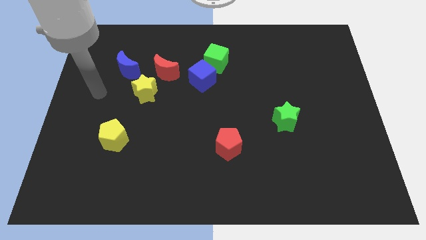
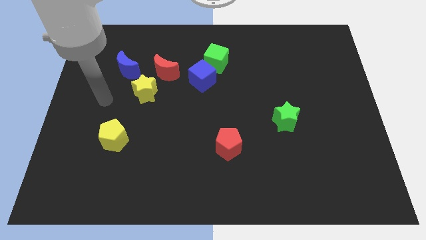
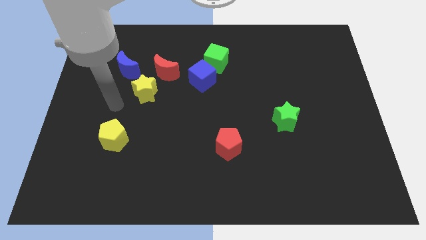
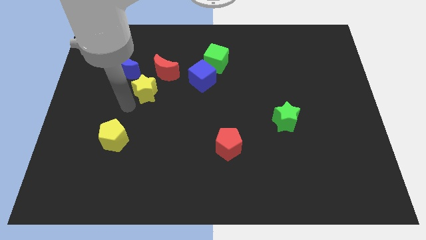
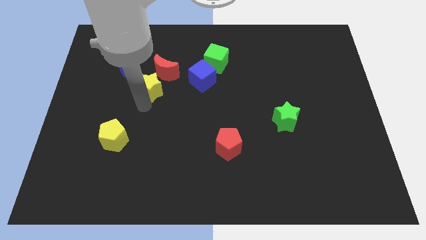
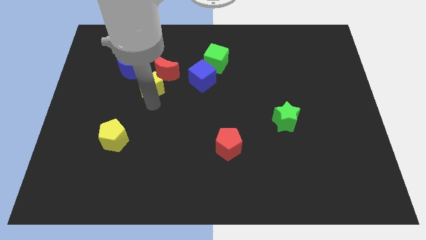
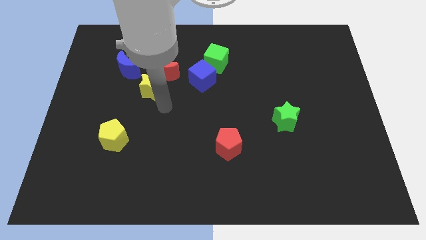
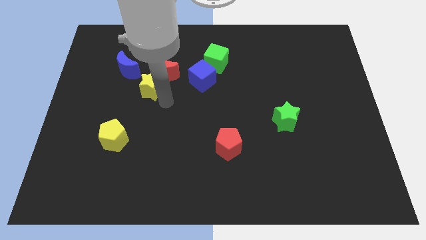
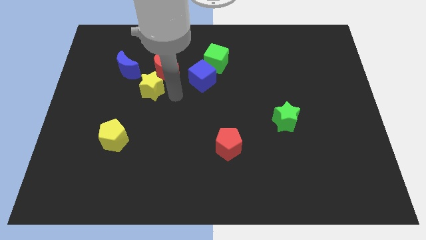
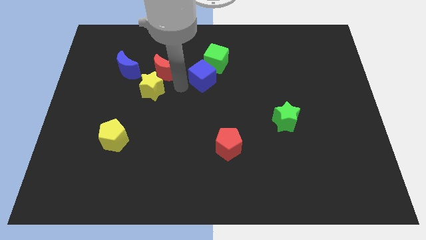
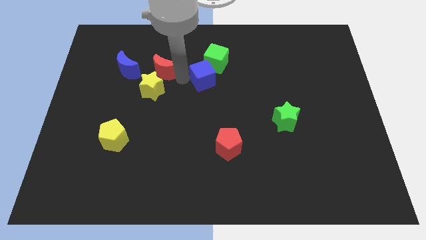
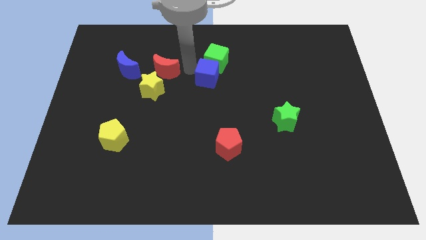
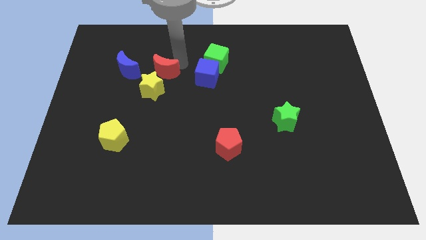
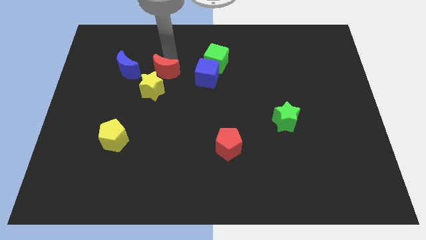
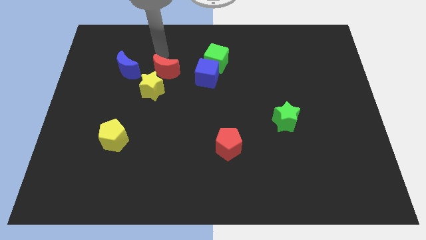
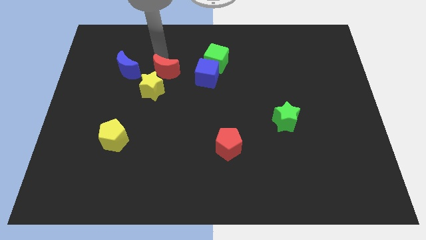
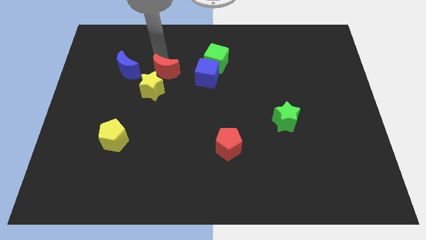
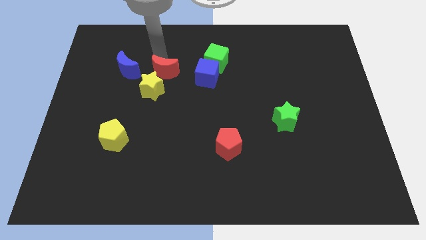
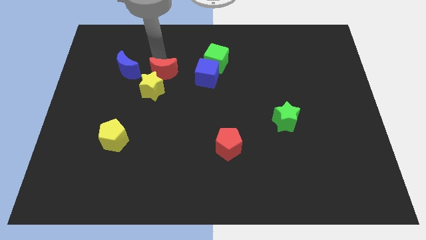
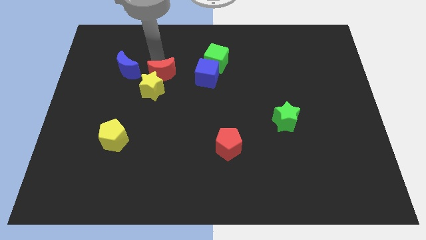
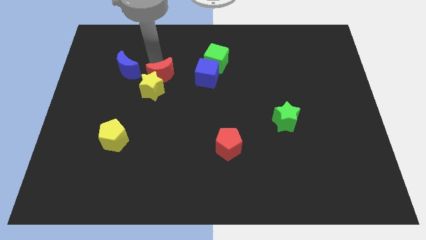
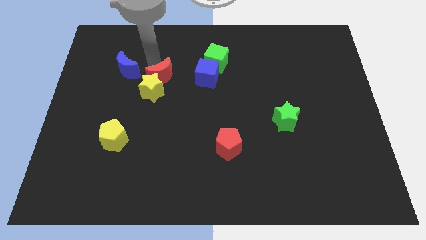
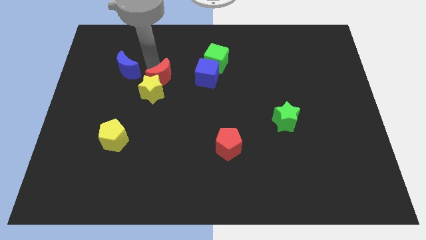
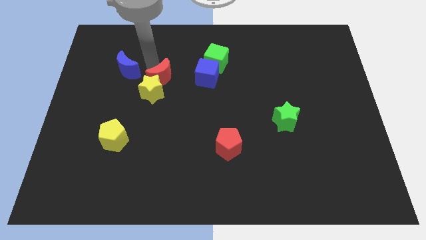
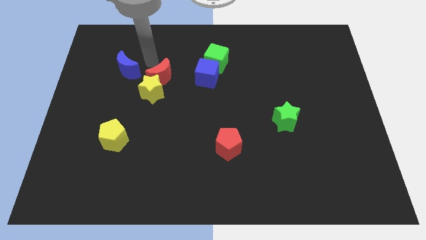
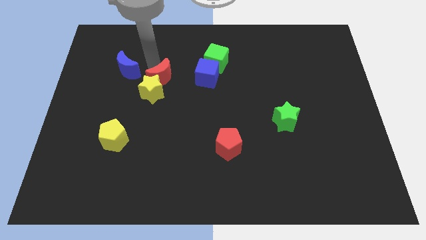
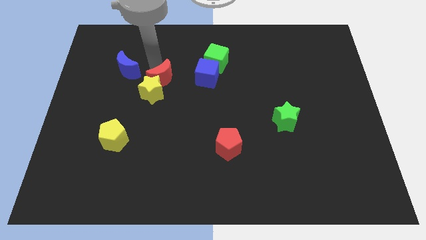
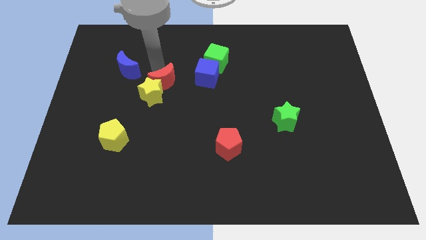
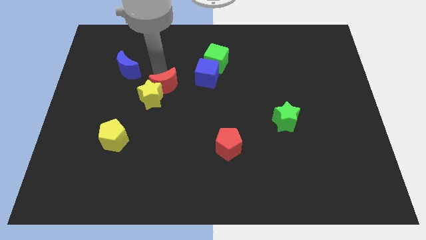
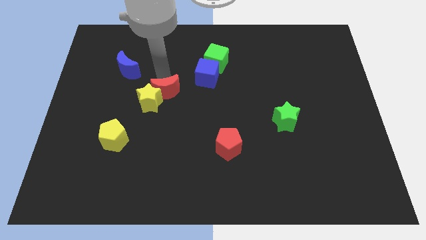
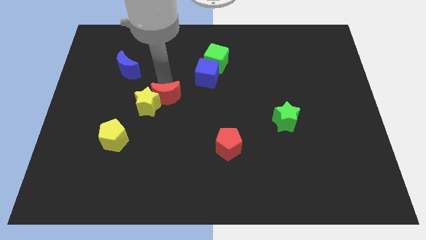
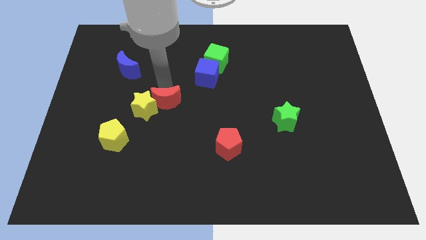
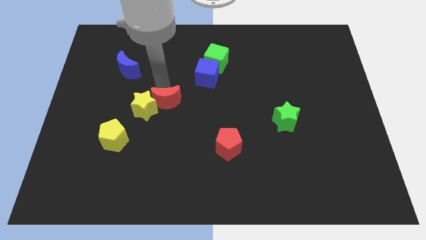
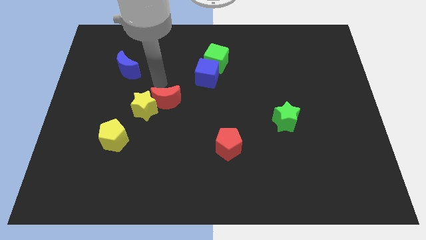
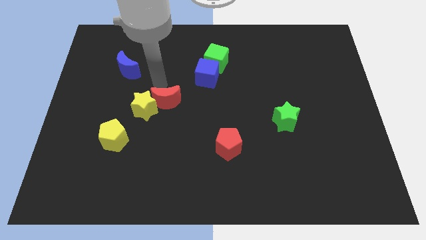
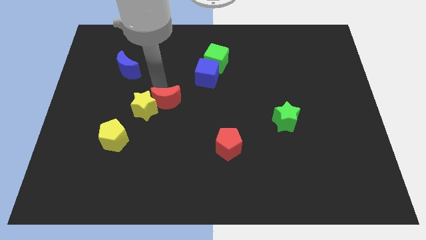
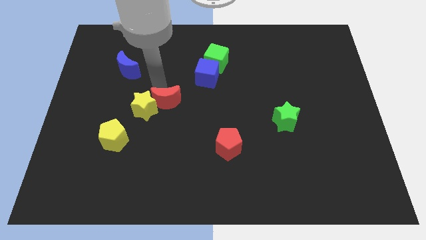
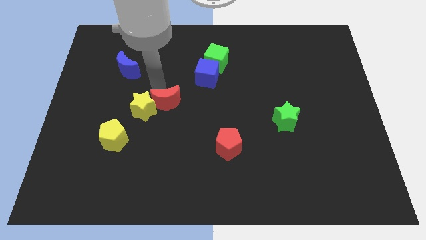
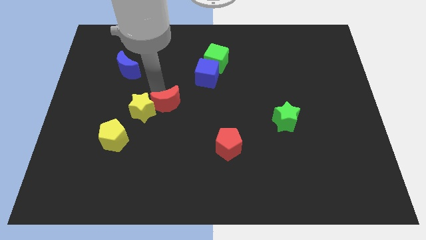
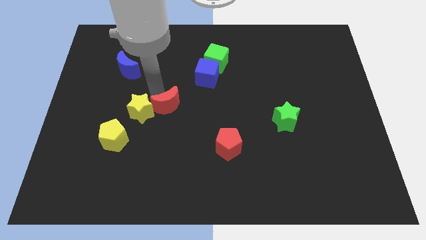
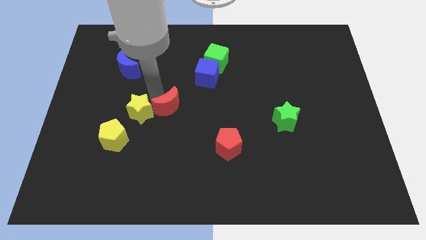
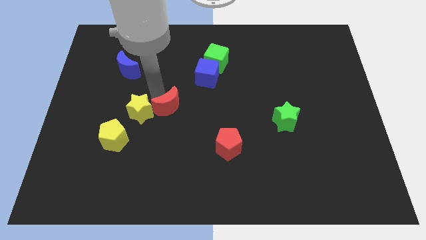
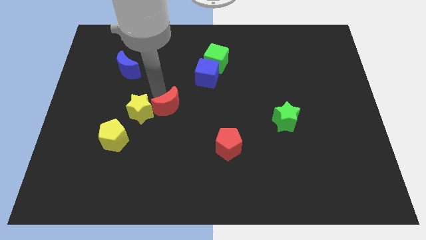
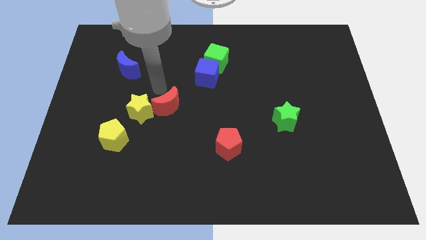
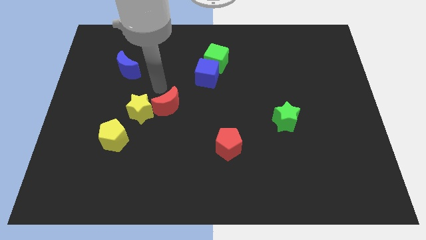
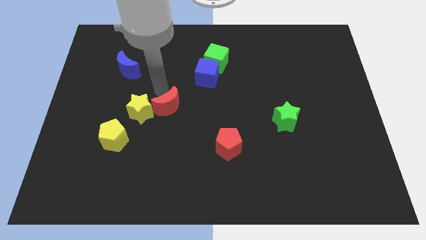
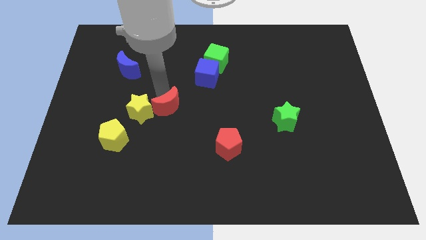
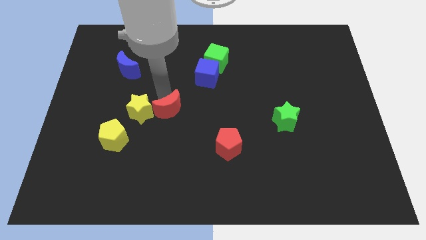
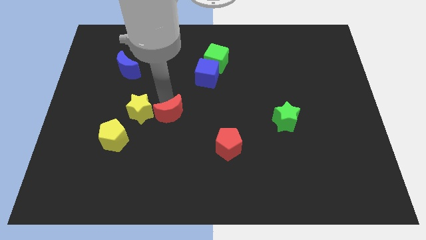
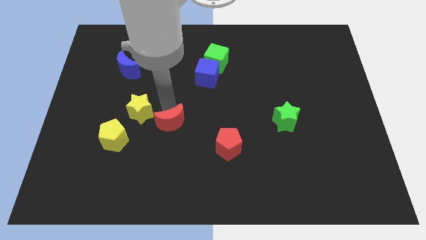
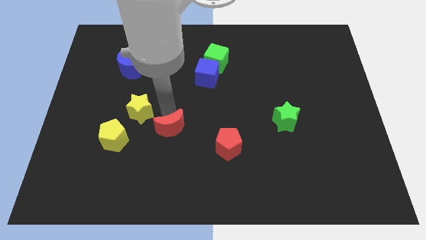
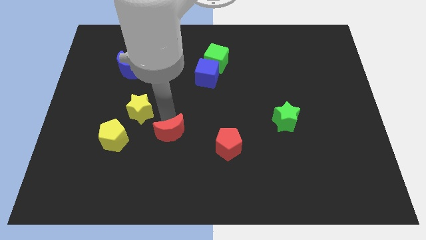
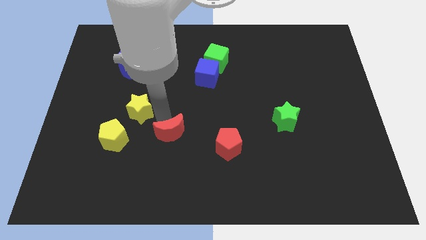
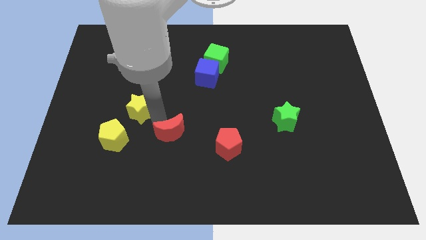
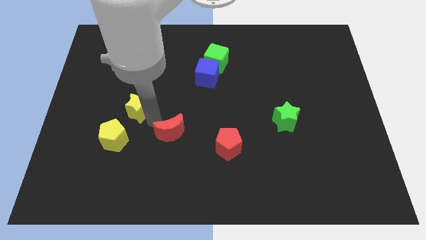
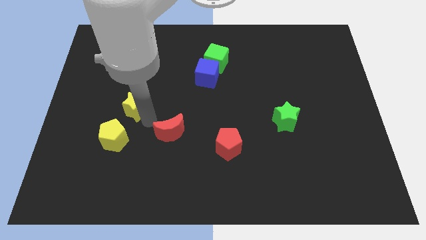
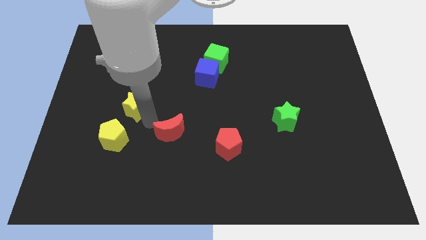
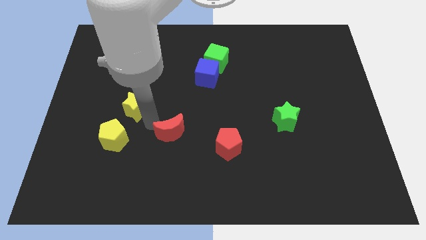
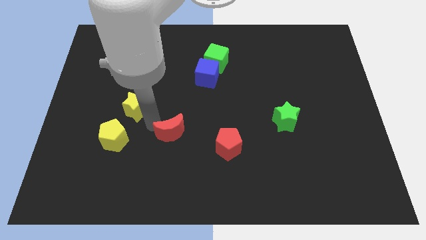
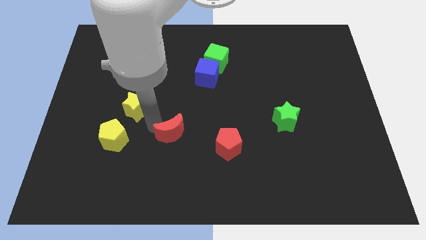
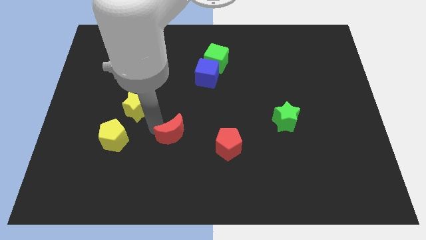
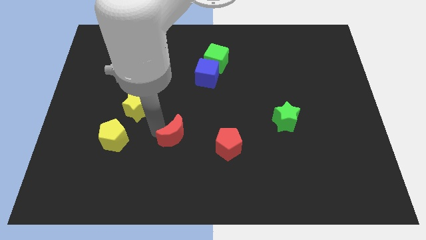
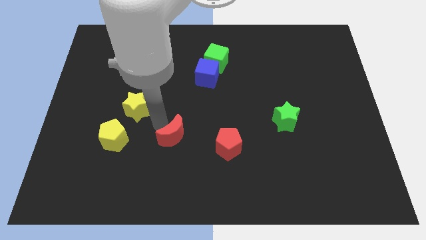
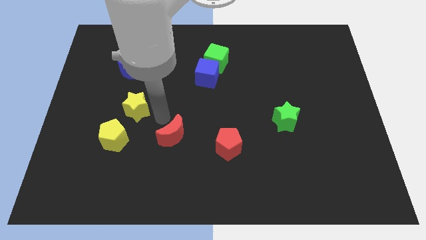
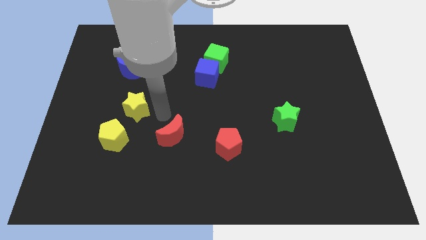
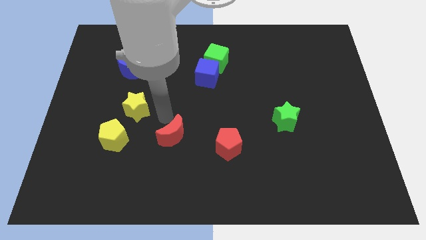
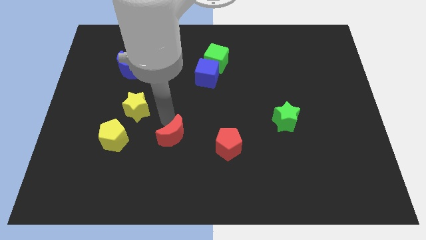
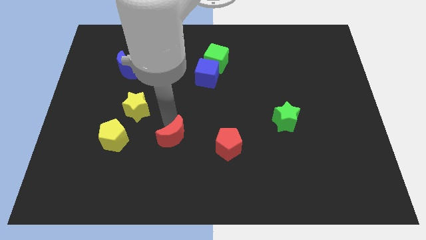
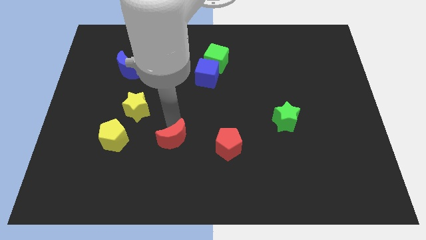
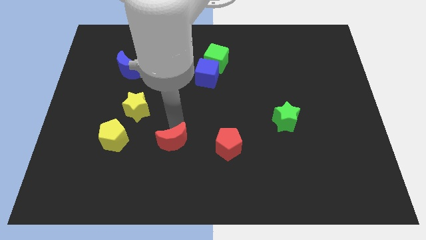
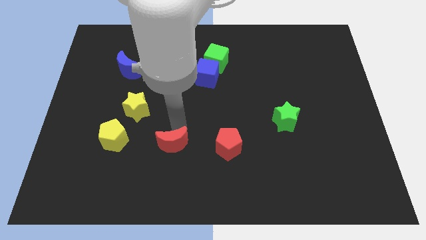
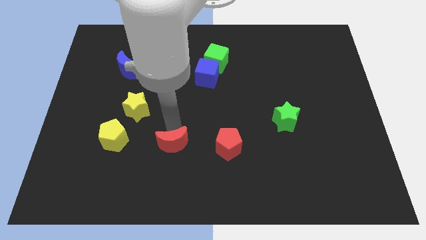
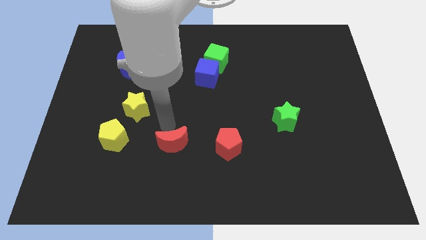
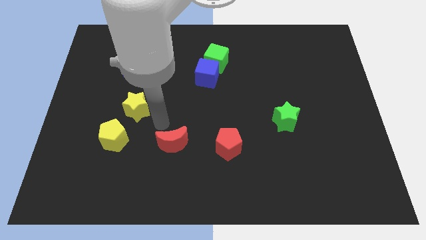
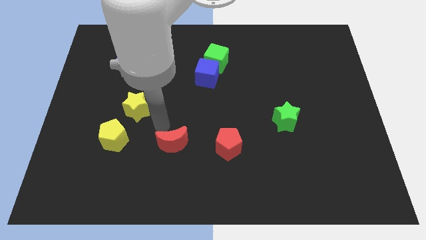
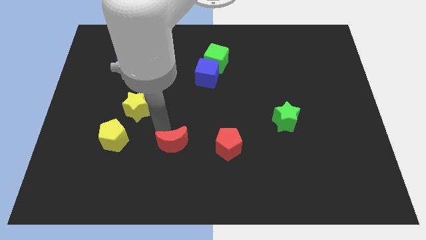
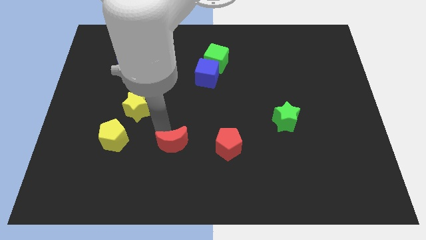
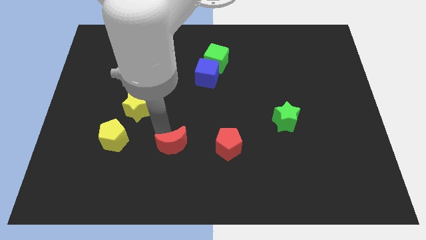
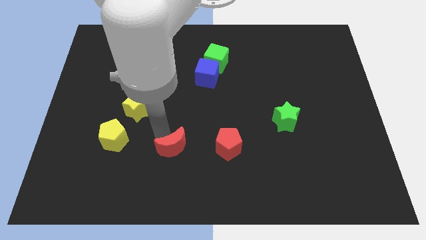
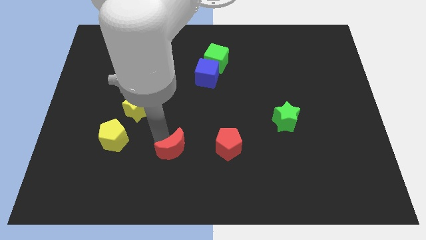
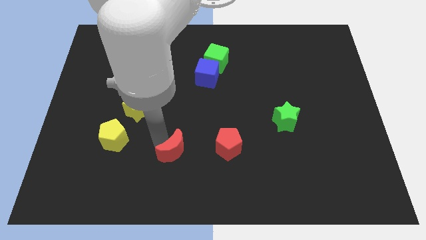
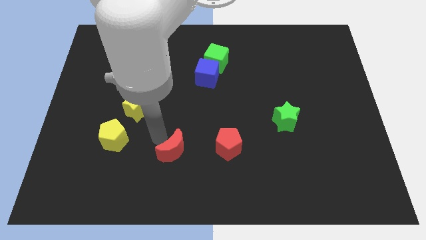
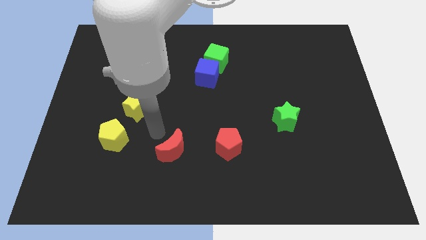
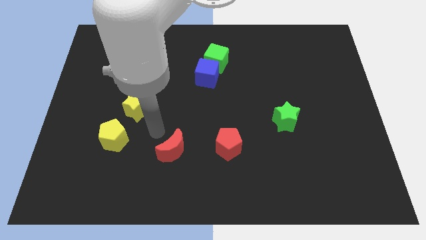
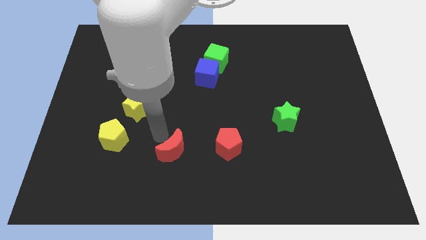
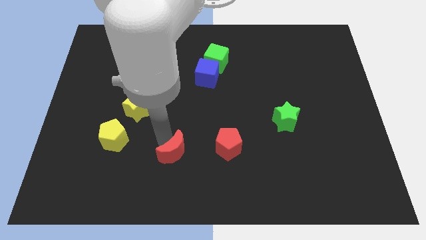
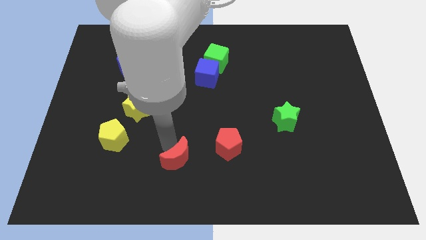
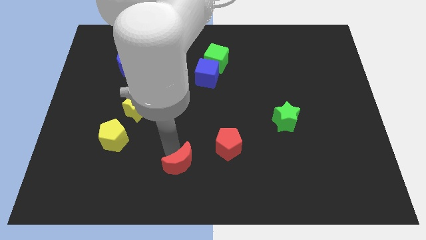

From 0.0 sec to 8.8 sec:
slide the red moon to the bottom
